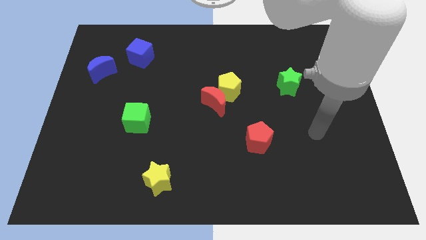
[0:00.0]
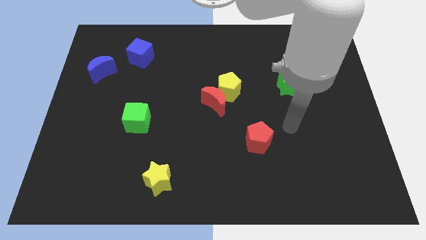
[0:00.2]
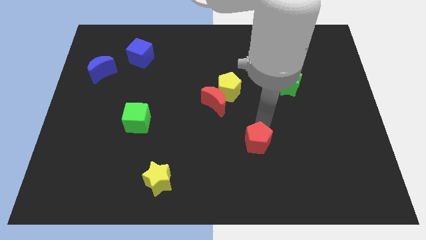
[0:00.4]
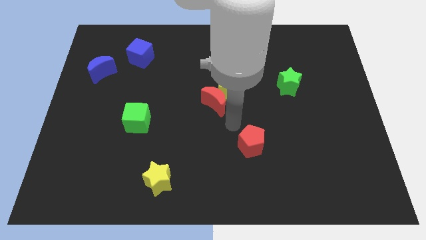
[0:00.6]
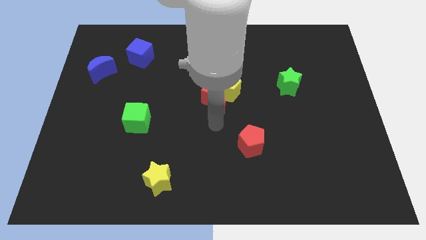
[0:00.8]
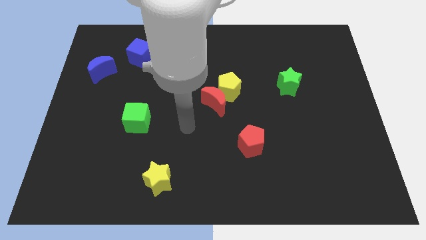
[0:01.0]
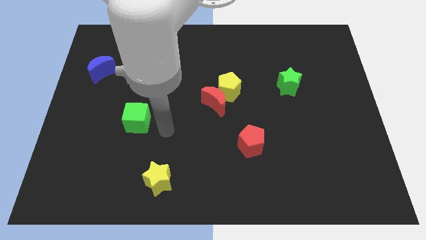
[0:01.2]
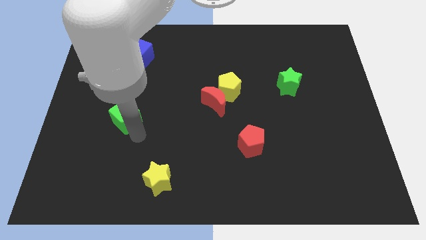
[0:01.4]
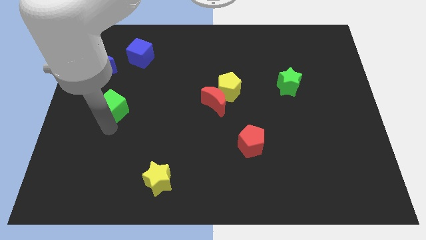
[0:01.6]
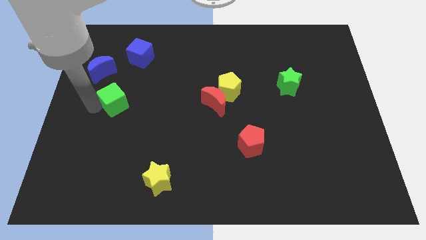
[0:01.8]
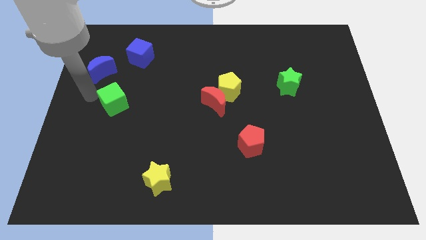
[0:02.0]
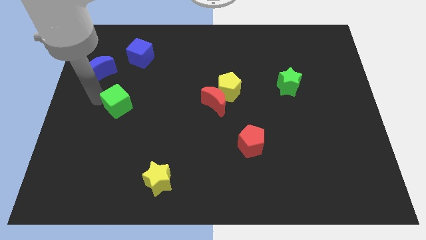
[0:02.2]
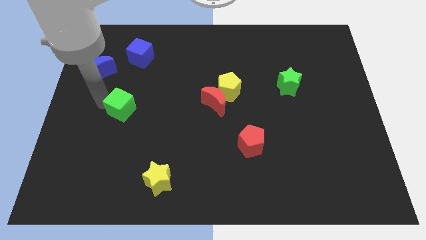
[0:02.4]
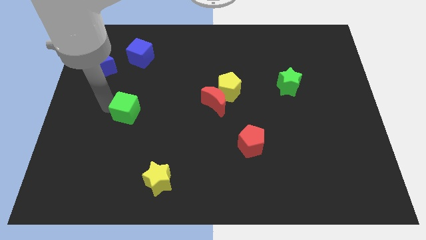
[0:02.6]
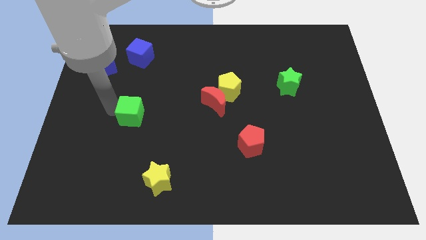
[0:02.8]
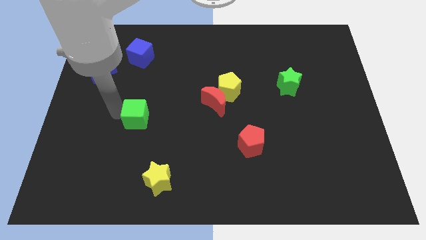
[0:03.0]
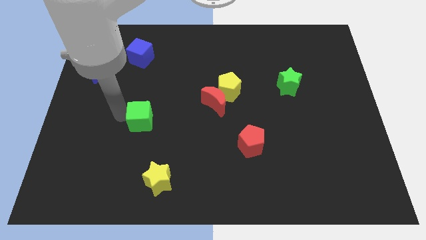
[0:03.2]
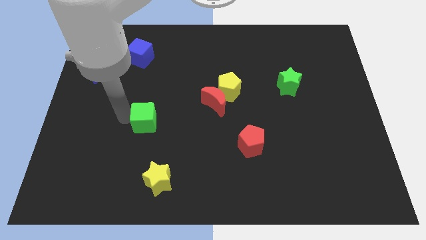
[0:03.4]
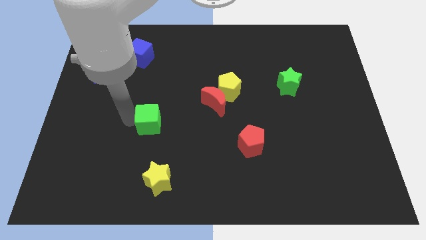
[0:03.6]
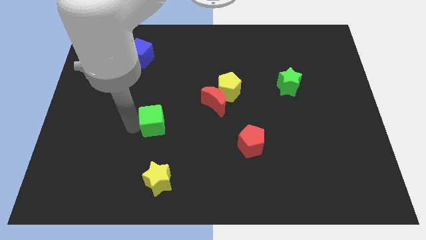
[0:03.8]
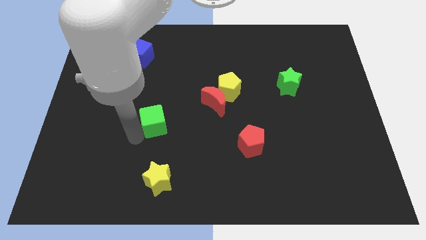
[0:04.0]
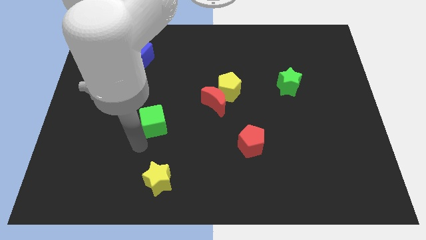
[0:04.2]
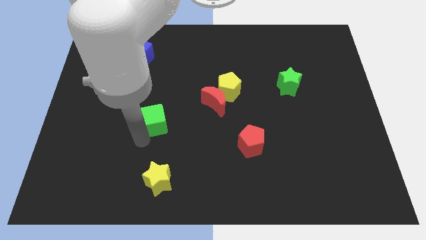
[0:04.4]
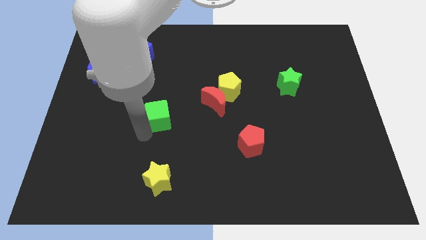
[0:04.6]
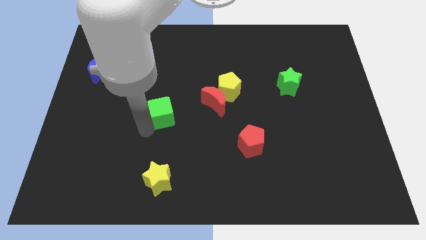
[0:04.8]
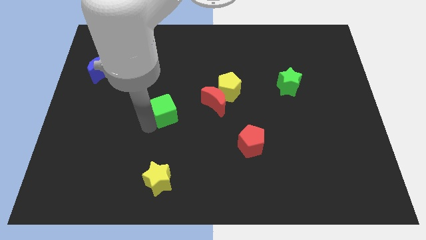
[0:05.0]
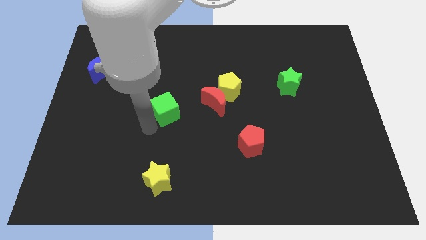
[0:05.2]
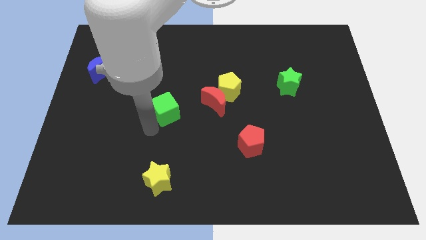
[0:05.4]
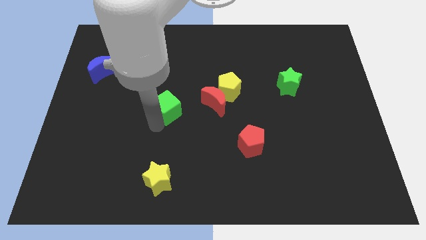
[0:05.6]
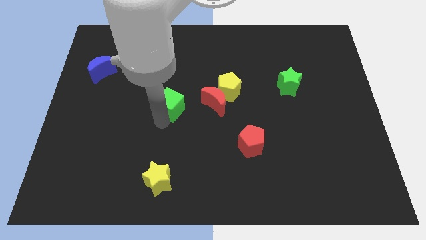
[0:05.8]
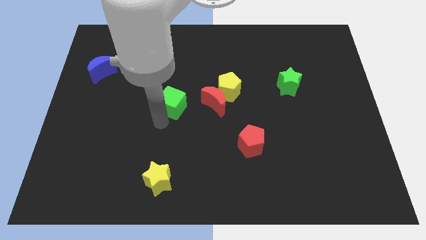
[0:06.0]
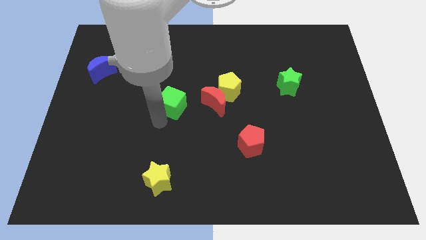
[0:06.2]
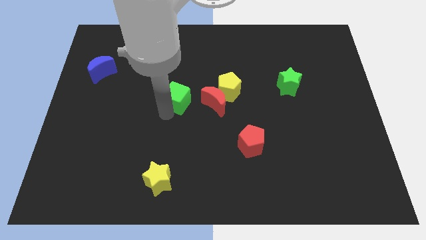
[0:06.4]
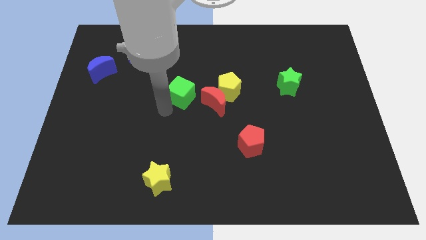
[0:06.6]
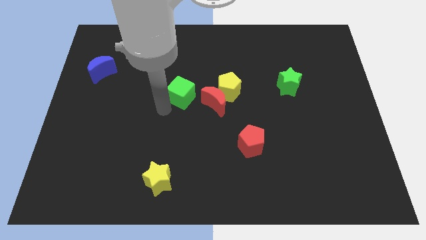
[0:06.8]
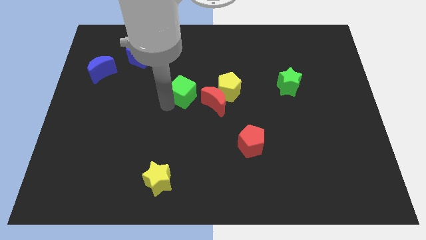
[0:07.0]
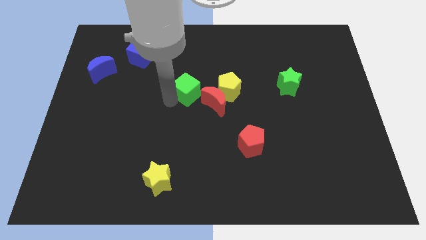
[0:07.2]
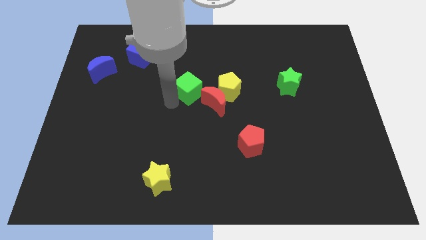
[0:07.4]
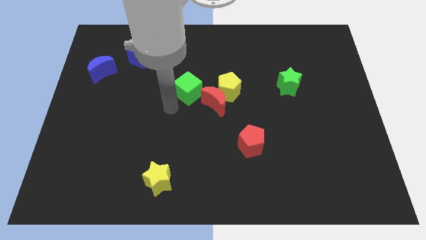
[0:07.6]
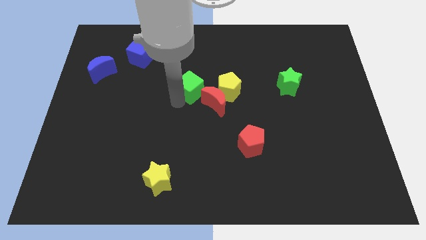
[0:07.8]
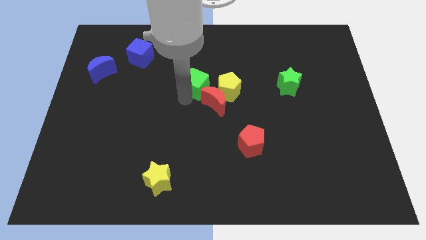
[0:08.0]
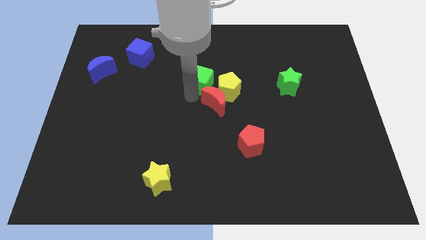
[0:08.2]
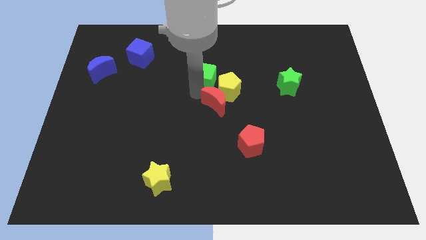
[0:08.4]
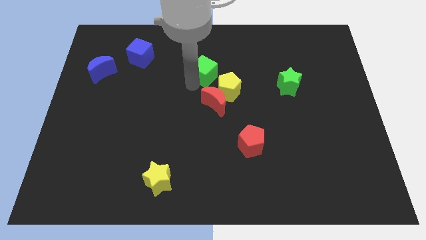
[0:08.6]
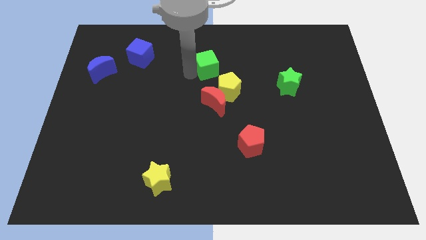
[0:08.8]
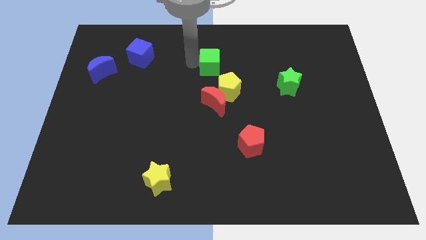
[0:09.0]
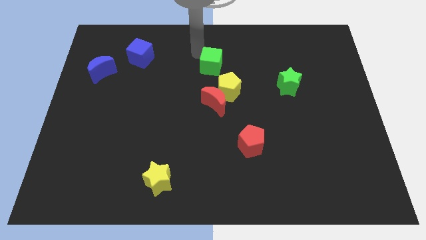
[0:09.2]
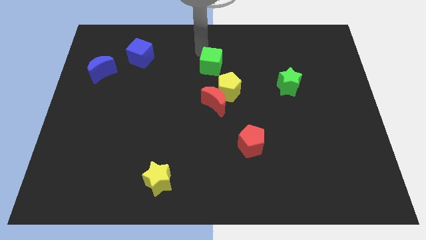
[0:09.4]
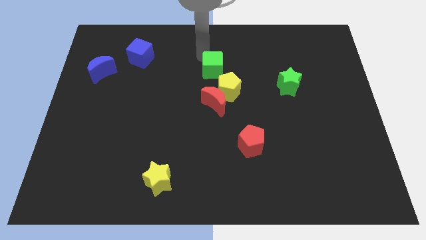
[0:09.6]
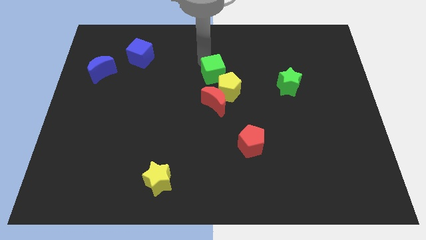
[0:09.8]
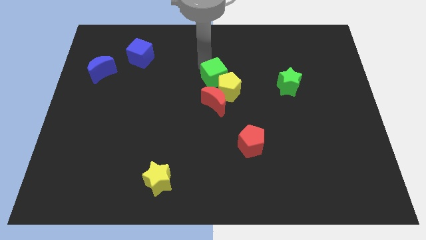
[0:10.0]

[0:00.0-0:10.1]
put the green cube towards the yellow pentagon

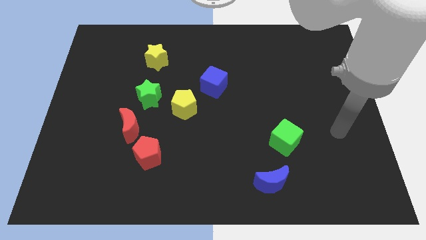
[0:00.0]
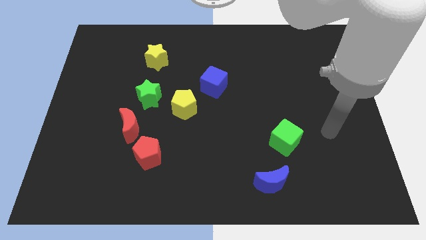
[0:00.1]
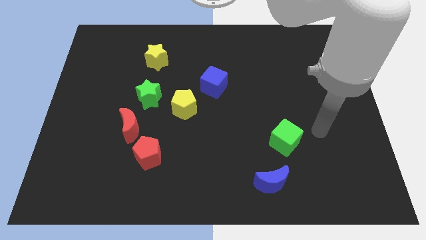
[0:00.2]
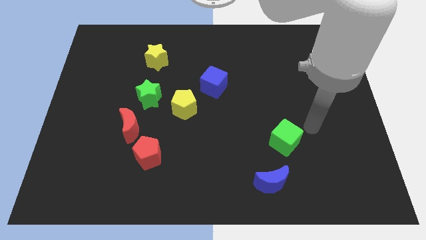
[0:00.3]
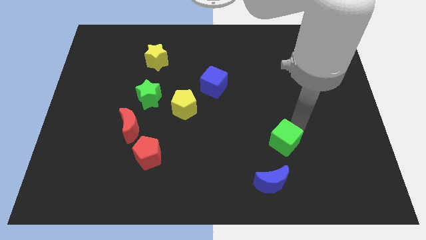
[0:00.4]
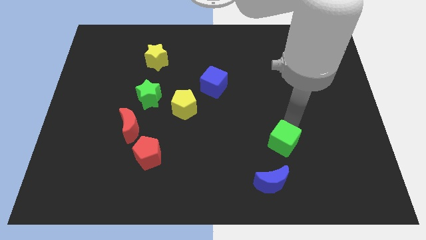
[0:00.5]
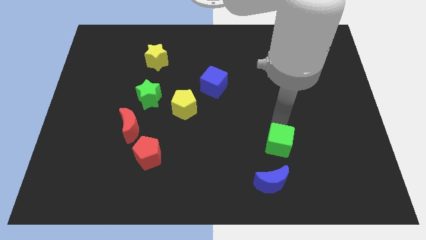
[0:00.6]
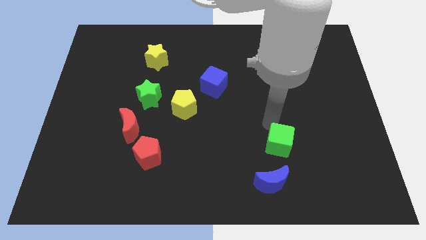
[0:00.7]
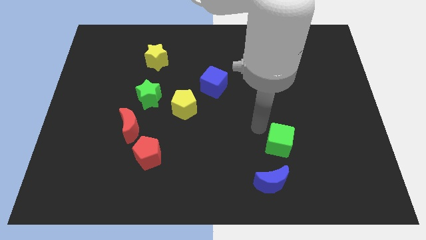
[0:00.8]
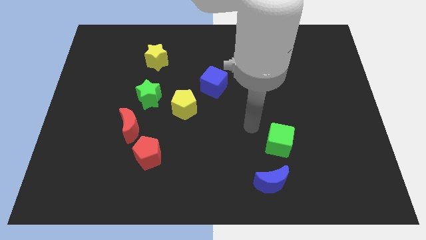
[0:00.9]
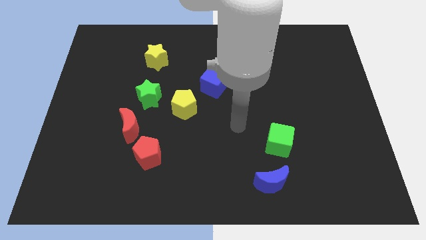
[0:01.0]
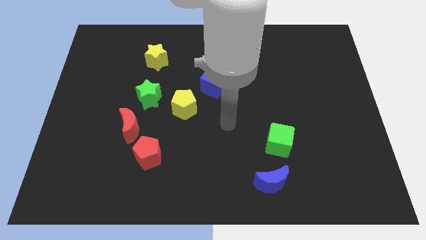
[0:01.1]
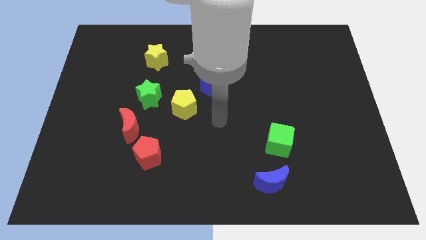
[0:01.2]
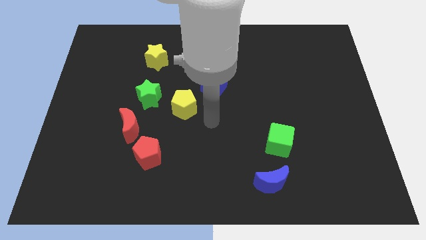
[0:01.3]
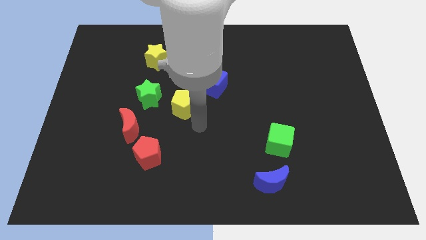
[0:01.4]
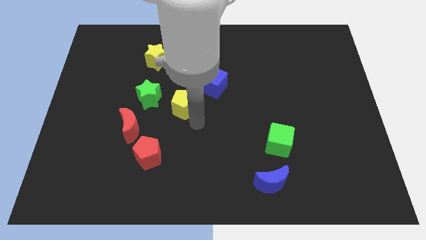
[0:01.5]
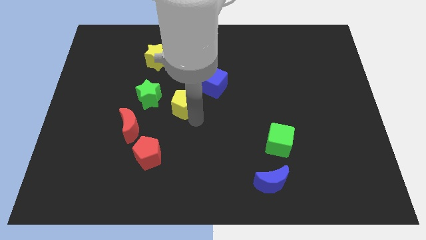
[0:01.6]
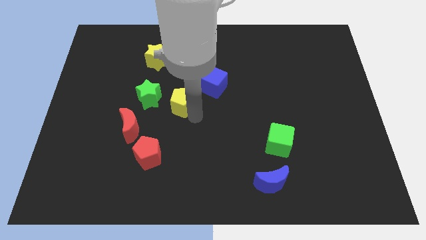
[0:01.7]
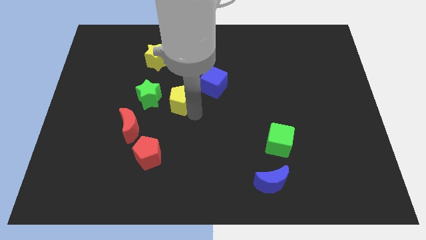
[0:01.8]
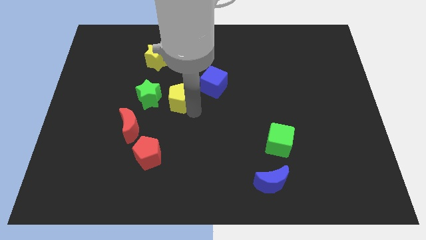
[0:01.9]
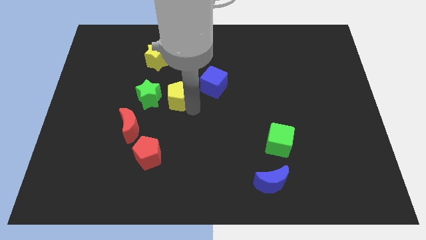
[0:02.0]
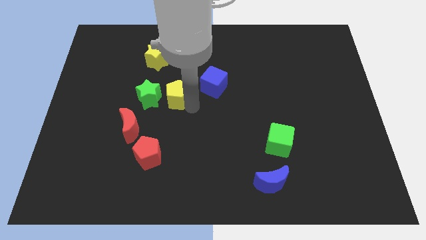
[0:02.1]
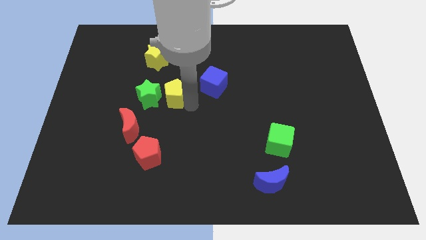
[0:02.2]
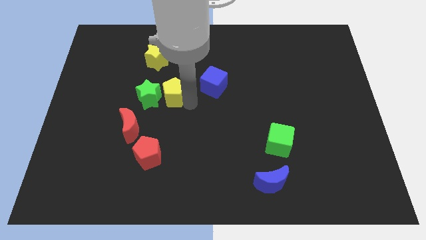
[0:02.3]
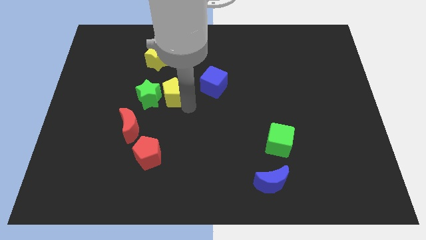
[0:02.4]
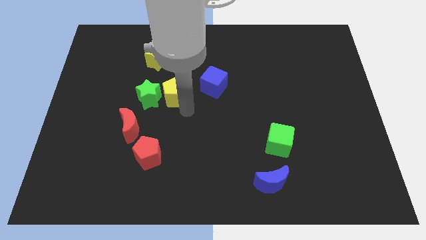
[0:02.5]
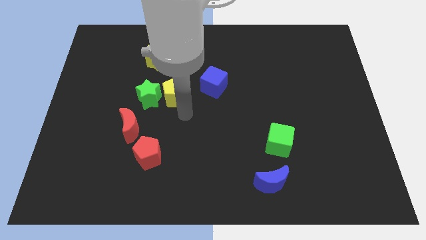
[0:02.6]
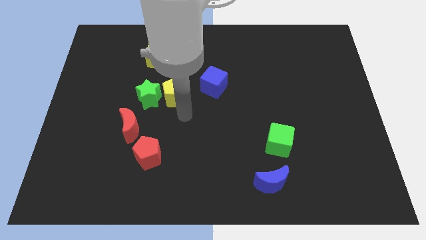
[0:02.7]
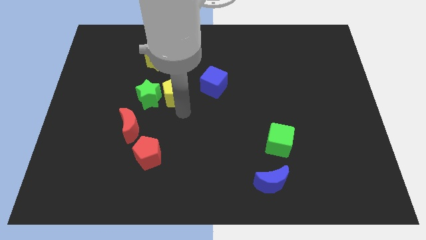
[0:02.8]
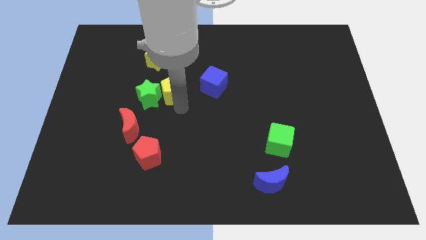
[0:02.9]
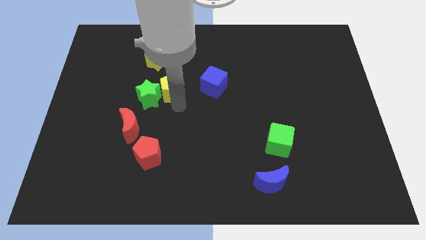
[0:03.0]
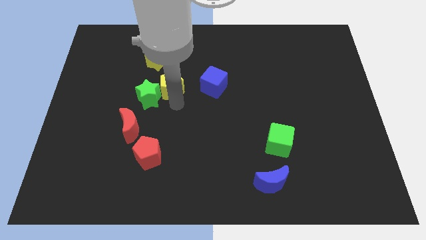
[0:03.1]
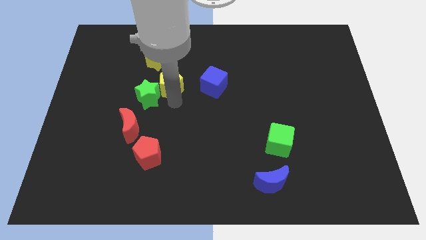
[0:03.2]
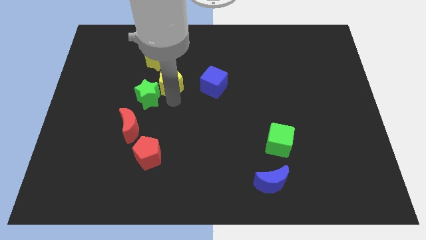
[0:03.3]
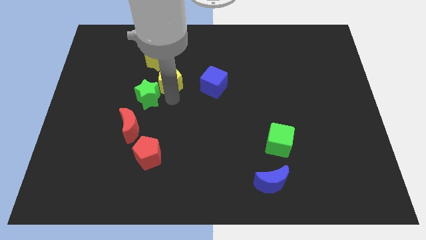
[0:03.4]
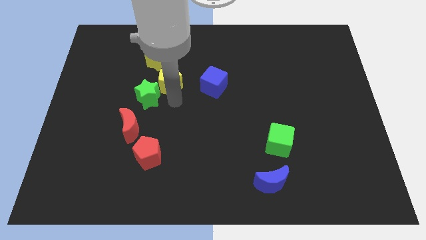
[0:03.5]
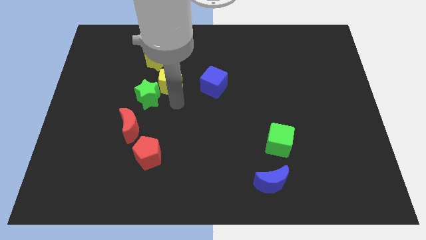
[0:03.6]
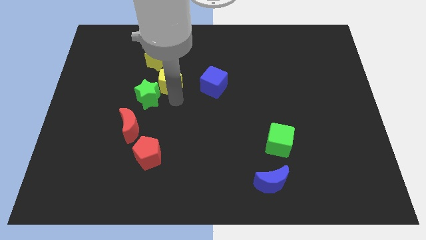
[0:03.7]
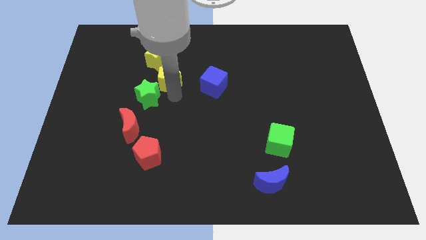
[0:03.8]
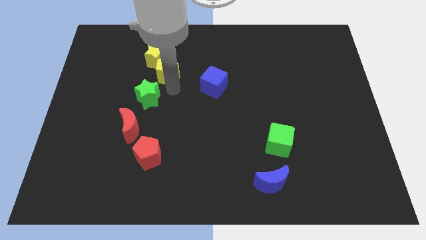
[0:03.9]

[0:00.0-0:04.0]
slide the yellow pentagon to the yellow star
